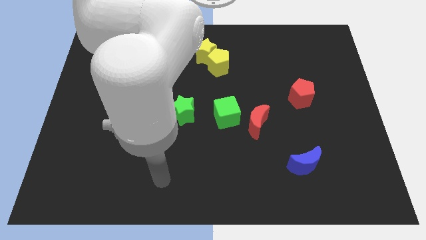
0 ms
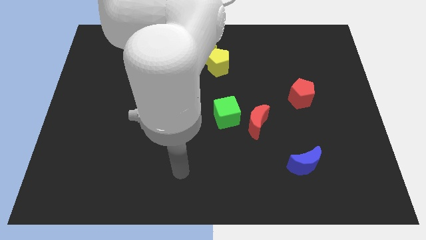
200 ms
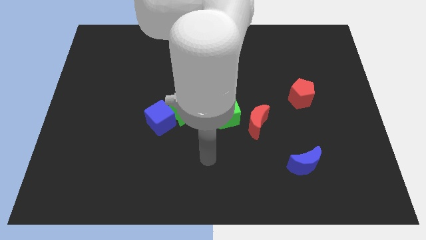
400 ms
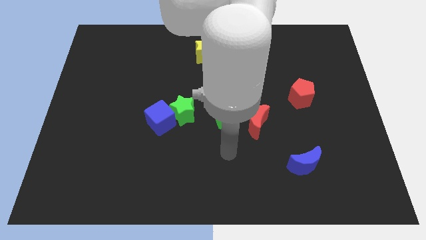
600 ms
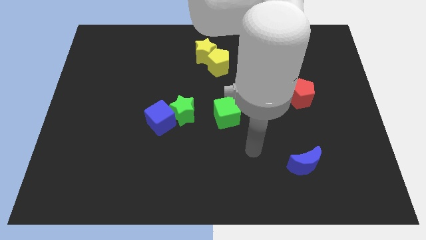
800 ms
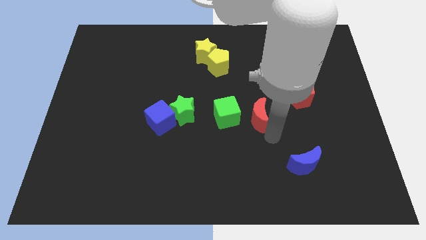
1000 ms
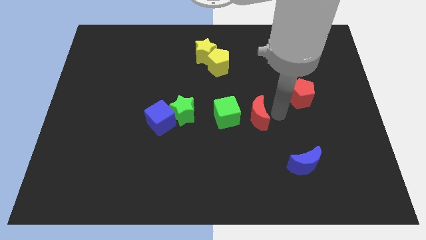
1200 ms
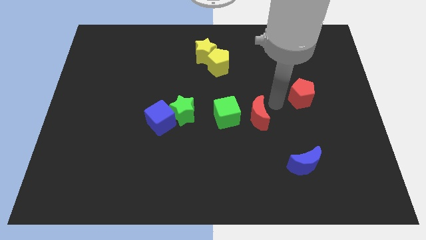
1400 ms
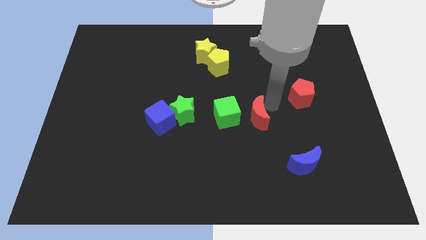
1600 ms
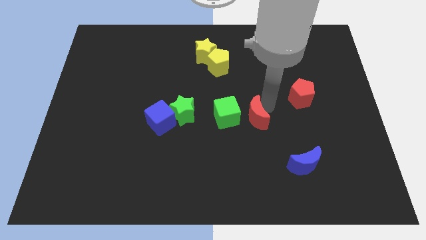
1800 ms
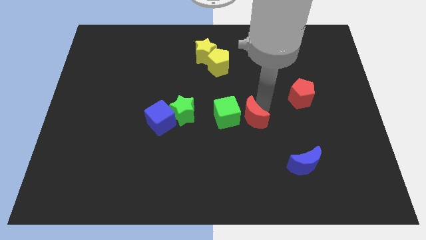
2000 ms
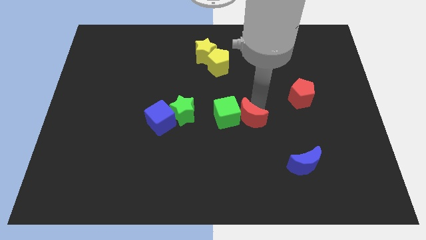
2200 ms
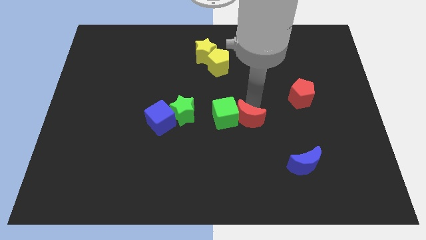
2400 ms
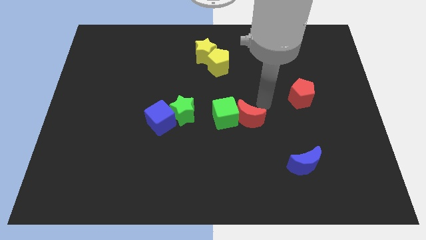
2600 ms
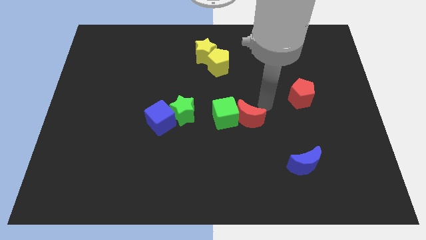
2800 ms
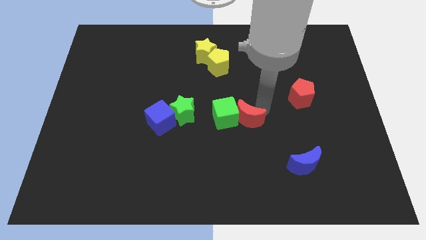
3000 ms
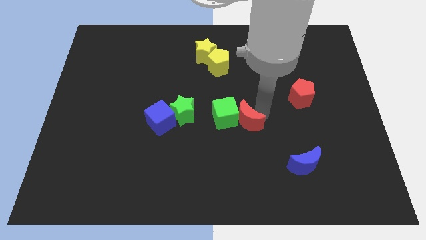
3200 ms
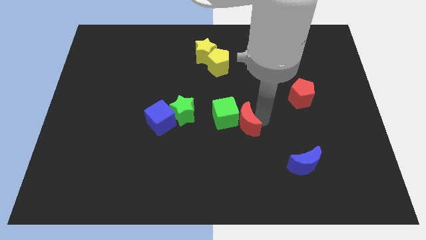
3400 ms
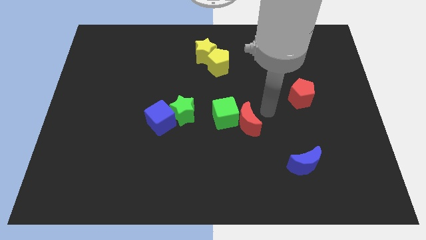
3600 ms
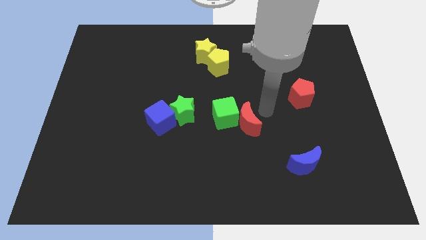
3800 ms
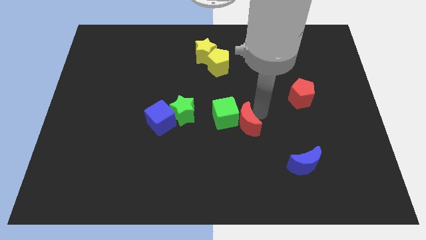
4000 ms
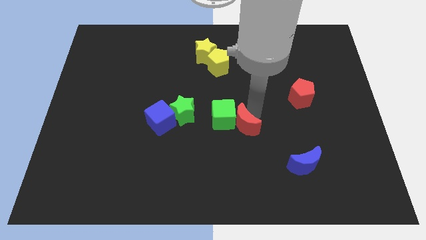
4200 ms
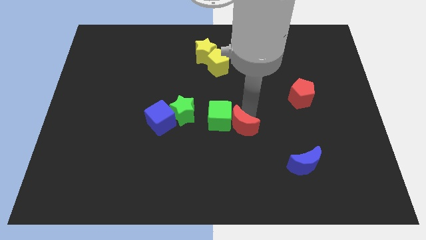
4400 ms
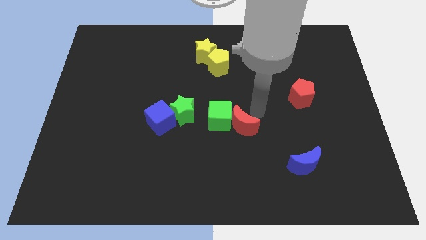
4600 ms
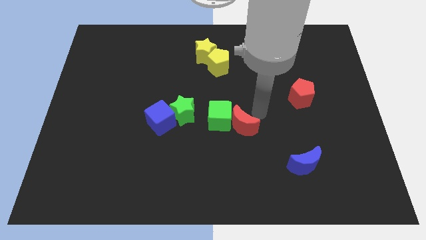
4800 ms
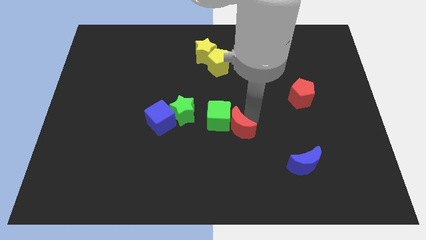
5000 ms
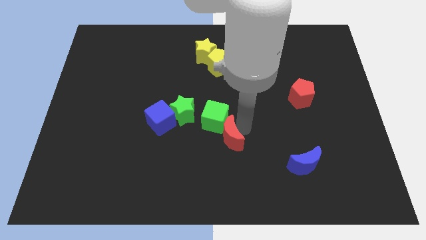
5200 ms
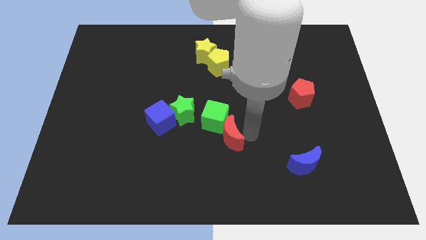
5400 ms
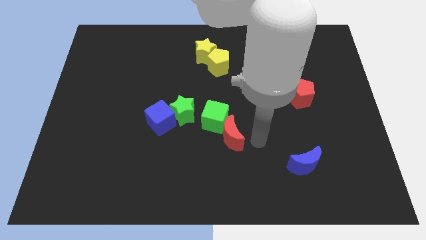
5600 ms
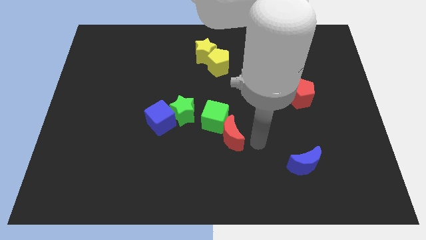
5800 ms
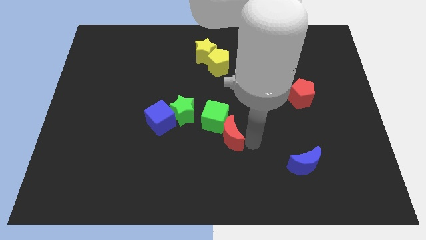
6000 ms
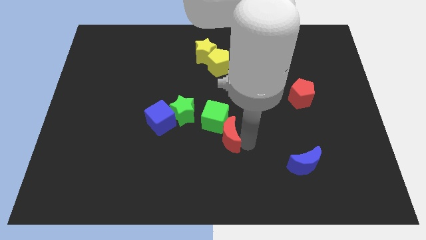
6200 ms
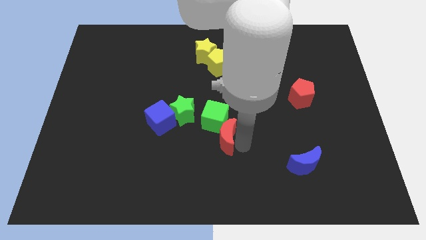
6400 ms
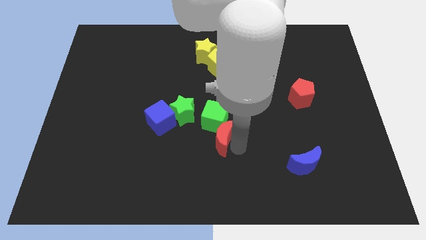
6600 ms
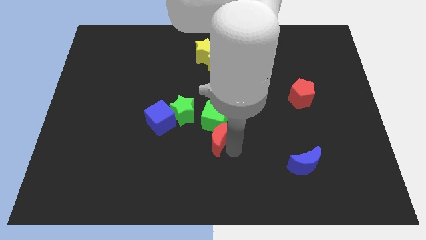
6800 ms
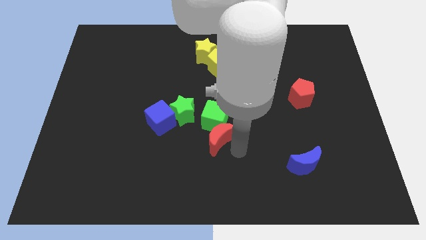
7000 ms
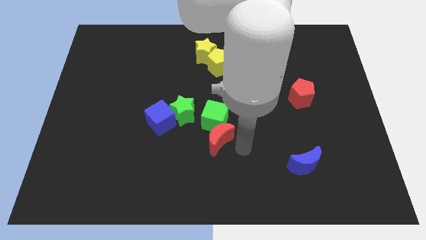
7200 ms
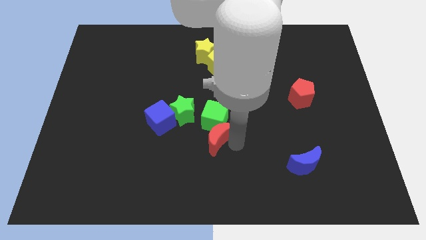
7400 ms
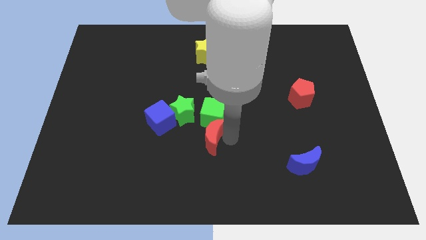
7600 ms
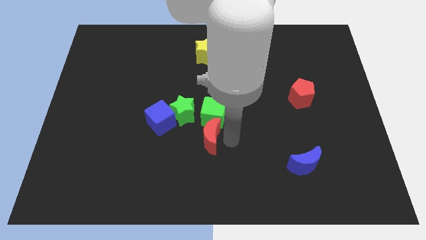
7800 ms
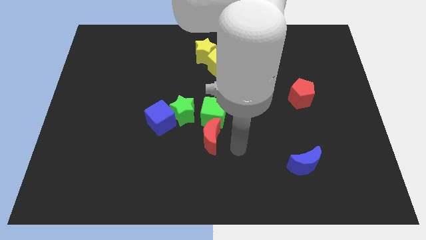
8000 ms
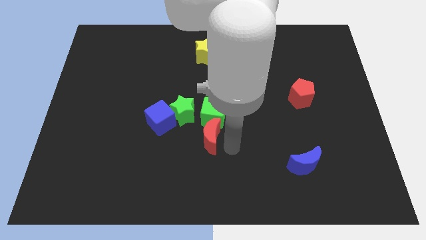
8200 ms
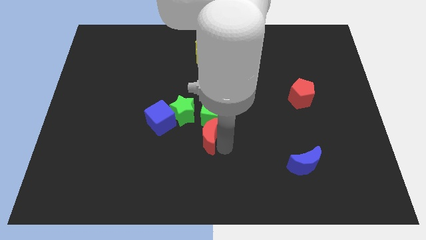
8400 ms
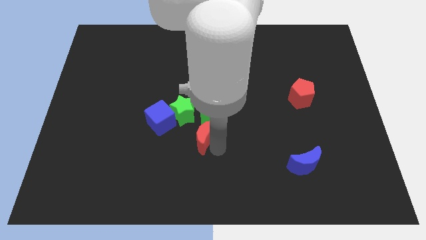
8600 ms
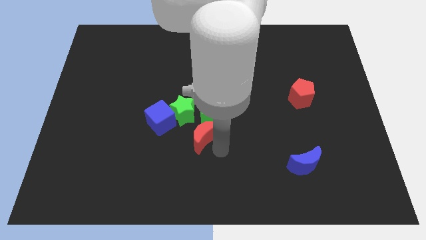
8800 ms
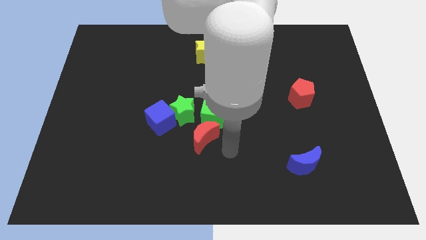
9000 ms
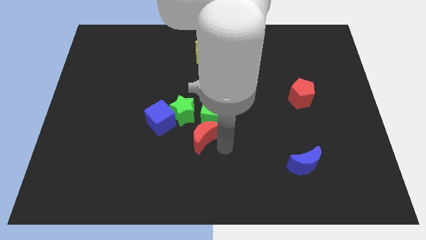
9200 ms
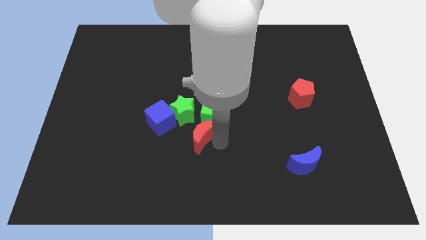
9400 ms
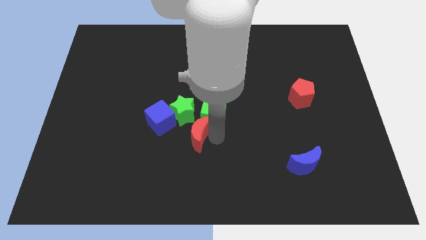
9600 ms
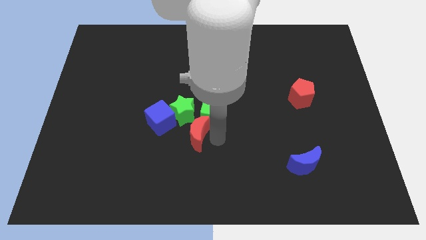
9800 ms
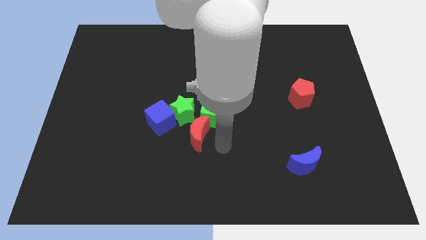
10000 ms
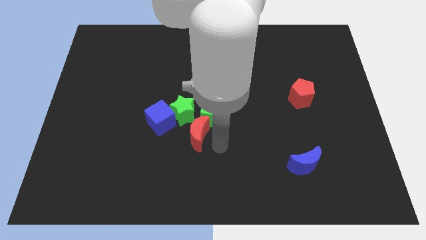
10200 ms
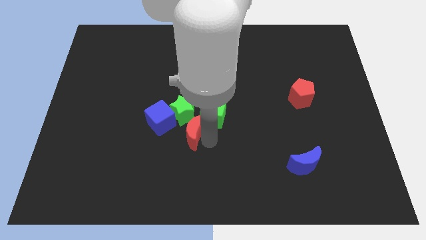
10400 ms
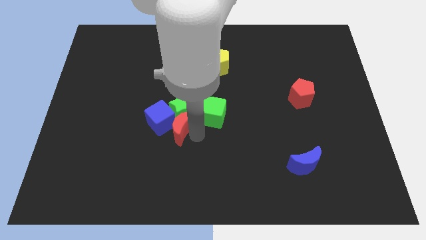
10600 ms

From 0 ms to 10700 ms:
put the red moon close to the blue cube

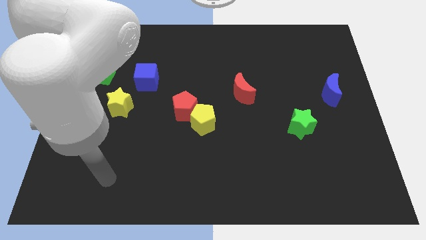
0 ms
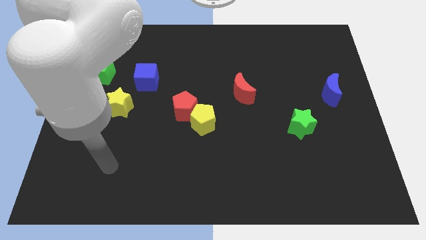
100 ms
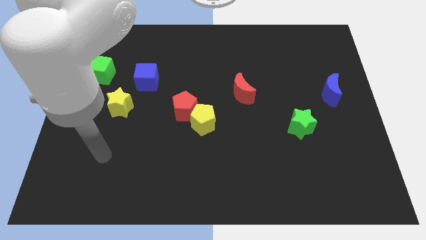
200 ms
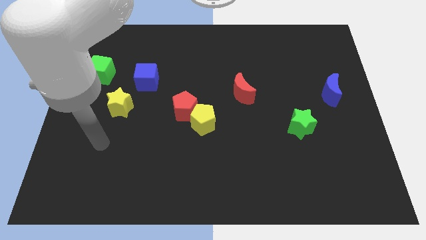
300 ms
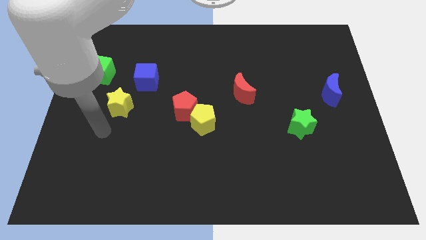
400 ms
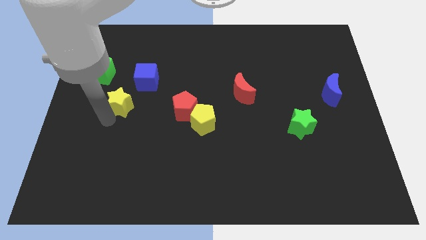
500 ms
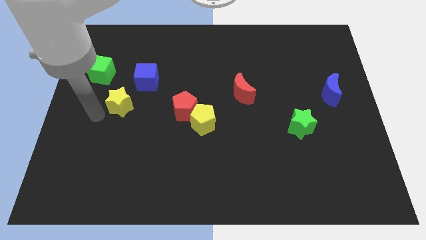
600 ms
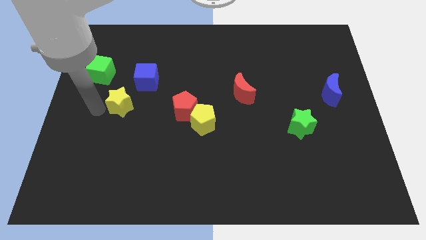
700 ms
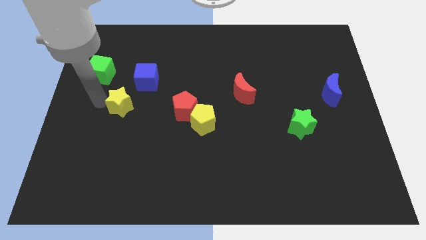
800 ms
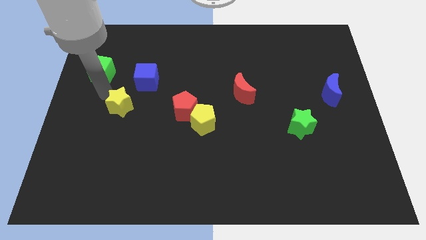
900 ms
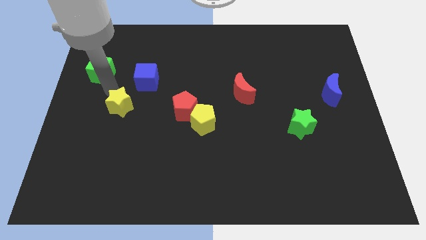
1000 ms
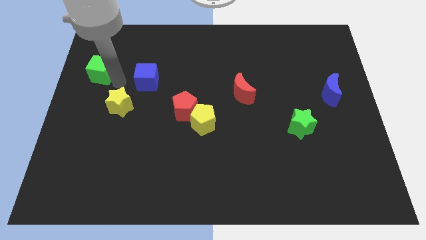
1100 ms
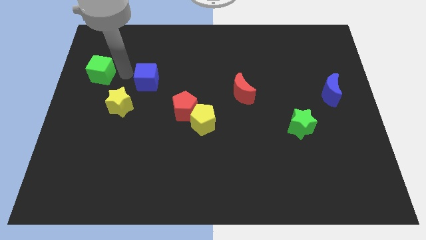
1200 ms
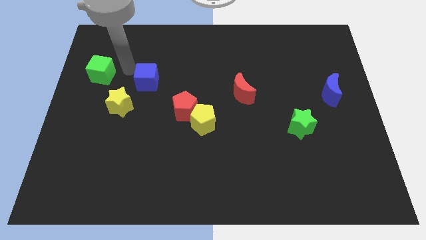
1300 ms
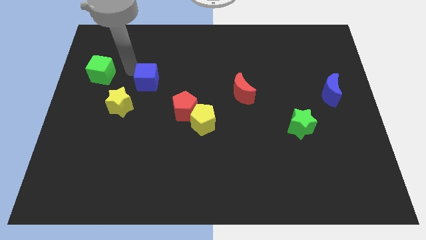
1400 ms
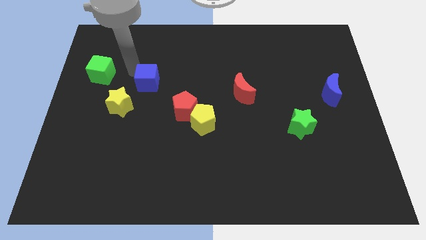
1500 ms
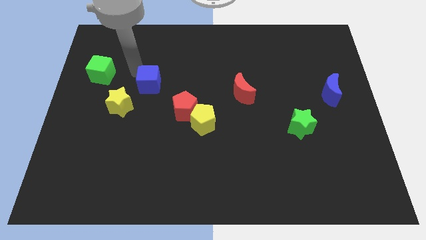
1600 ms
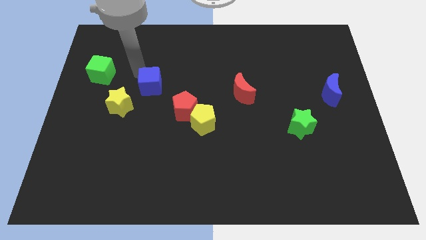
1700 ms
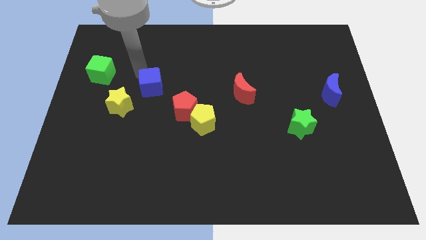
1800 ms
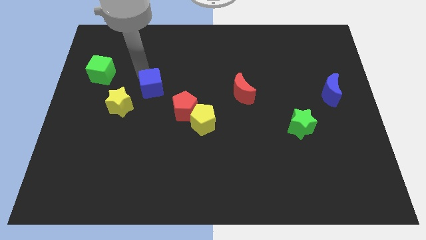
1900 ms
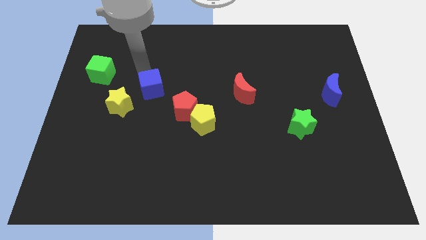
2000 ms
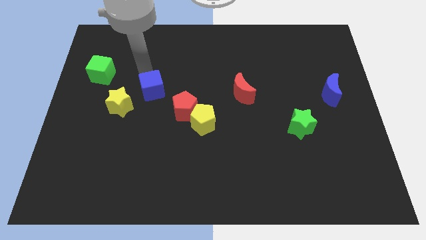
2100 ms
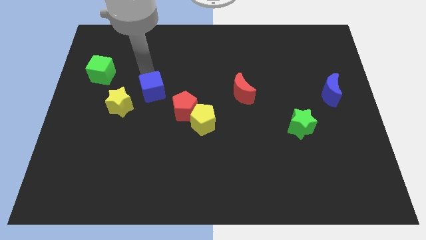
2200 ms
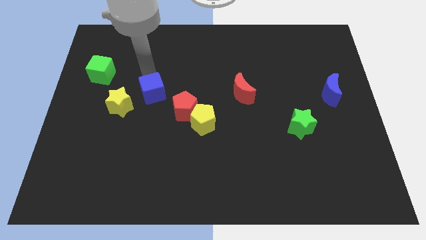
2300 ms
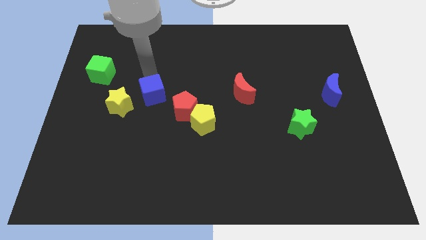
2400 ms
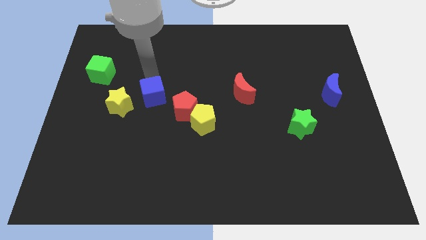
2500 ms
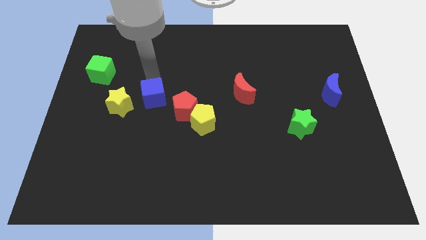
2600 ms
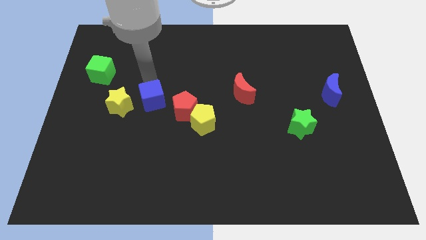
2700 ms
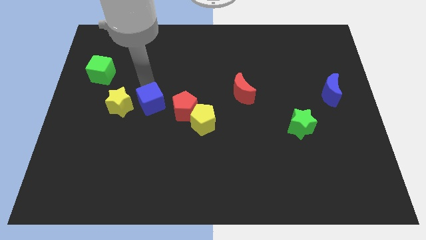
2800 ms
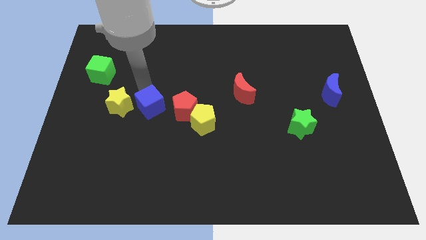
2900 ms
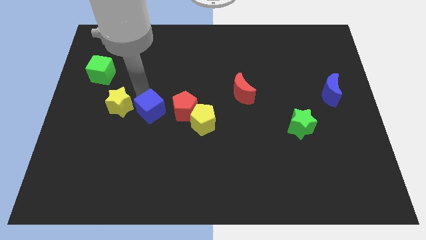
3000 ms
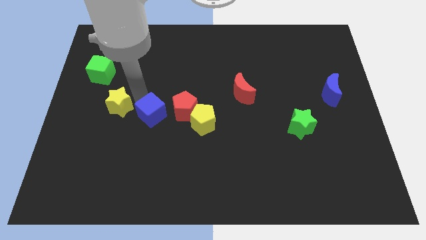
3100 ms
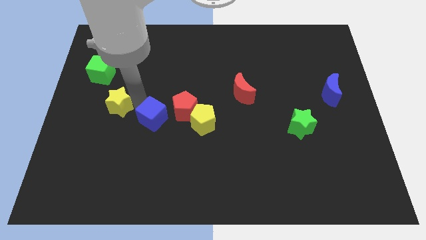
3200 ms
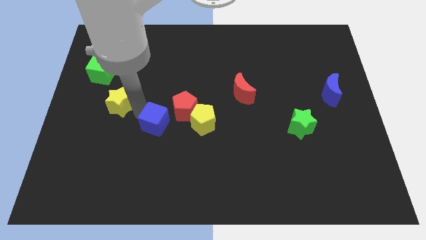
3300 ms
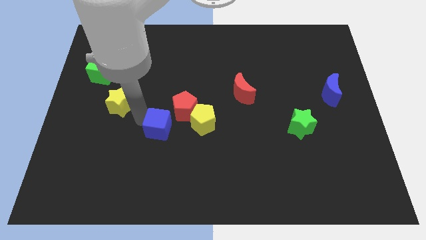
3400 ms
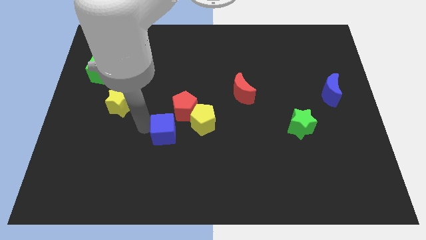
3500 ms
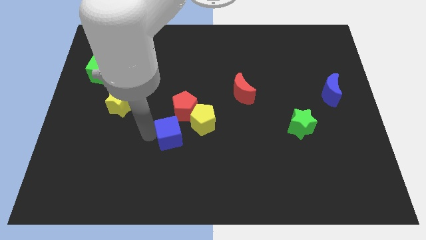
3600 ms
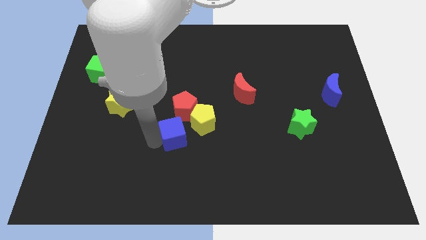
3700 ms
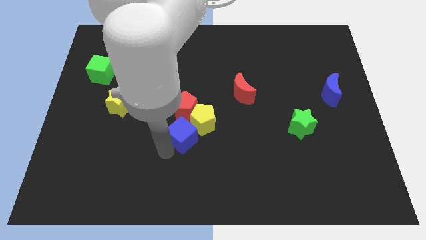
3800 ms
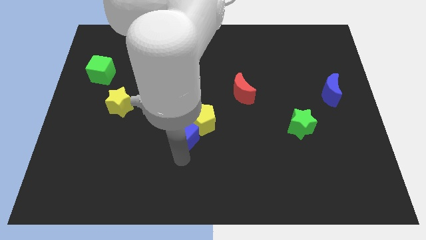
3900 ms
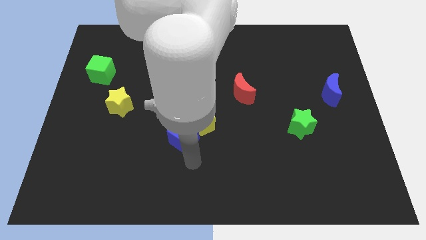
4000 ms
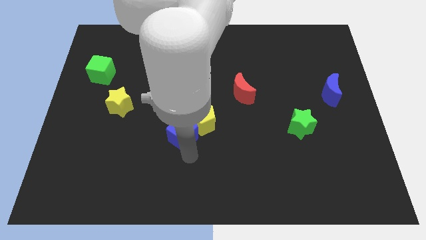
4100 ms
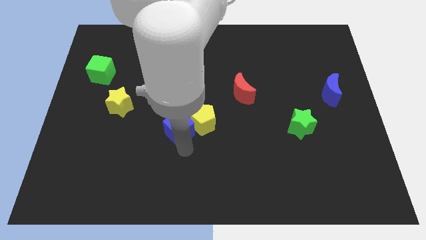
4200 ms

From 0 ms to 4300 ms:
put the blue cube towards the red pentagon
